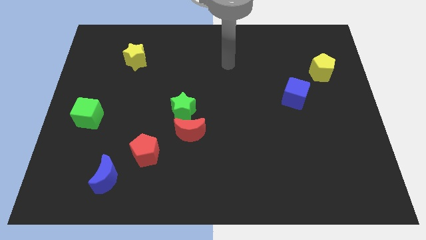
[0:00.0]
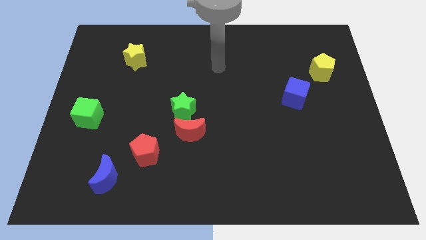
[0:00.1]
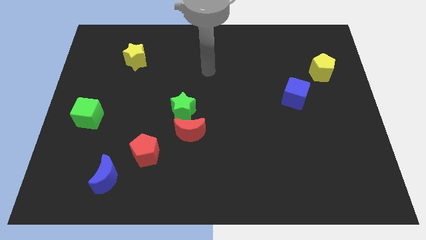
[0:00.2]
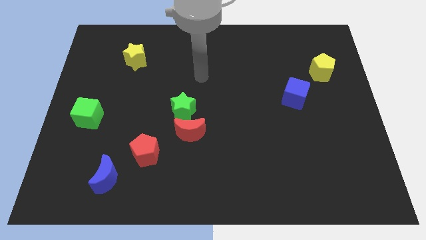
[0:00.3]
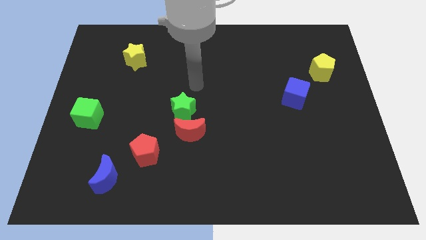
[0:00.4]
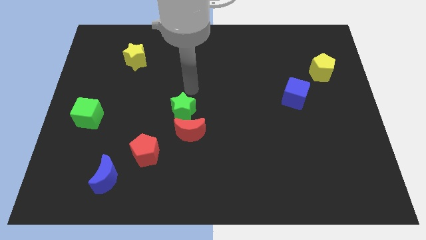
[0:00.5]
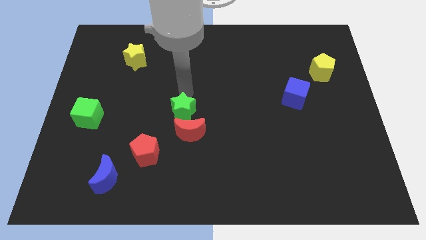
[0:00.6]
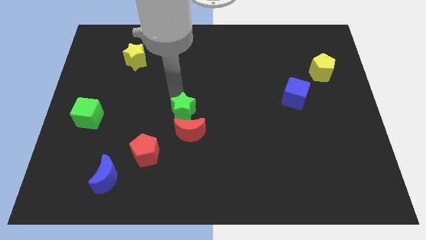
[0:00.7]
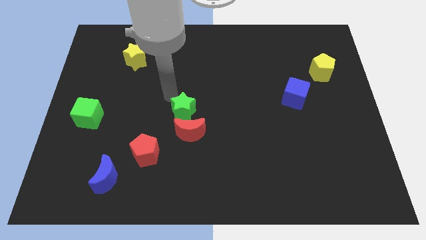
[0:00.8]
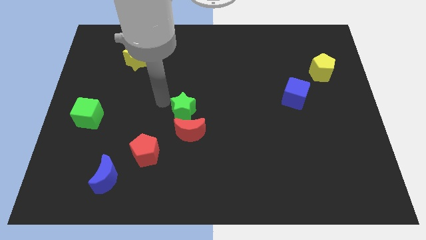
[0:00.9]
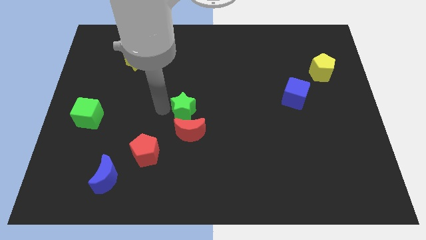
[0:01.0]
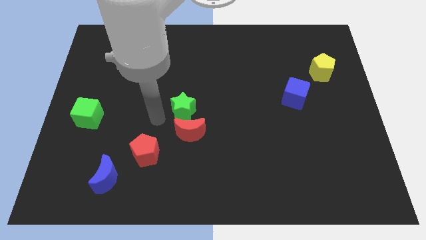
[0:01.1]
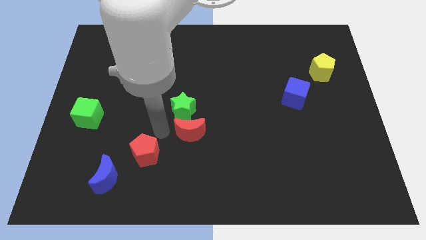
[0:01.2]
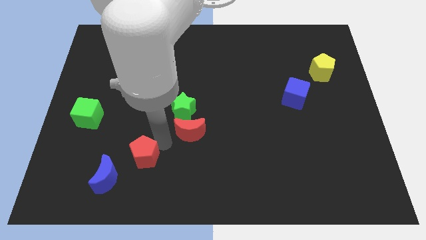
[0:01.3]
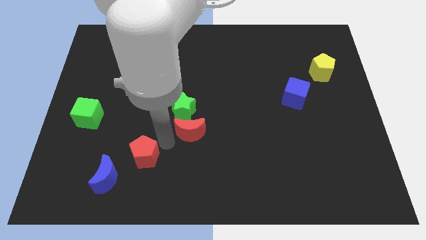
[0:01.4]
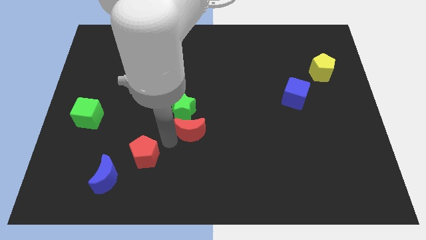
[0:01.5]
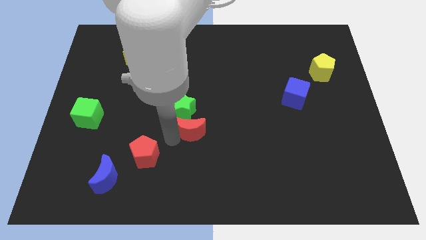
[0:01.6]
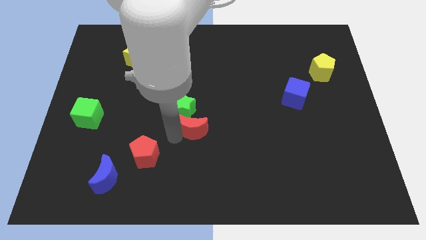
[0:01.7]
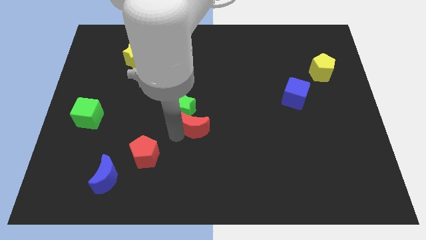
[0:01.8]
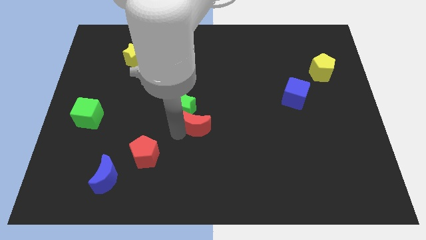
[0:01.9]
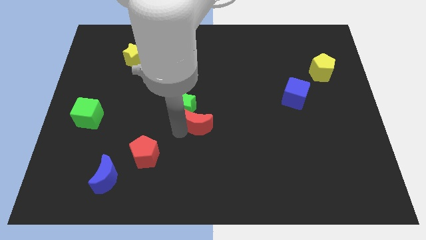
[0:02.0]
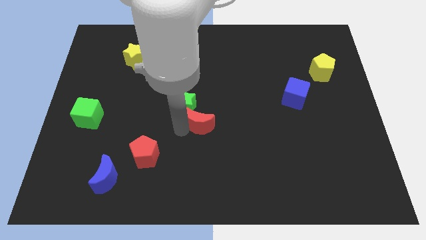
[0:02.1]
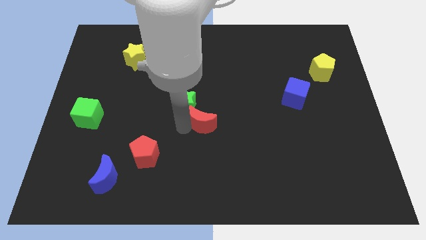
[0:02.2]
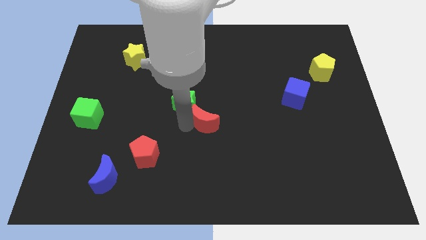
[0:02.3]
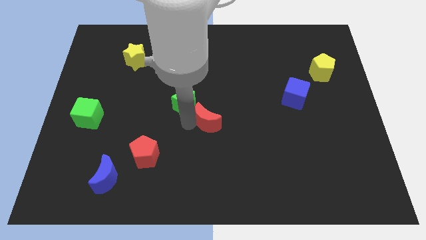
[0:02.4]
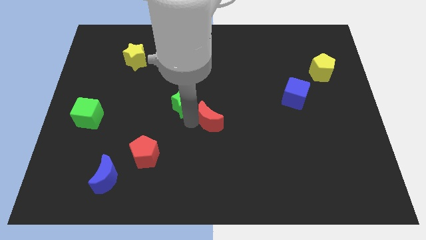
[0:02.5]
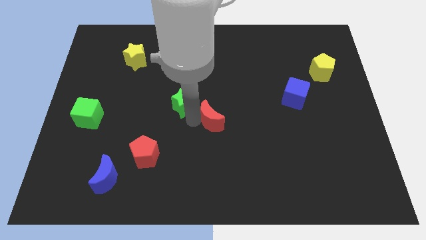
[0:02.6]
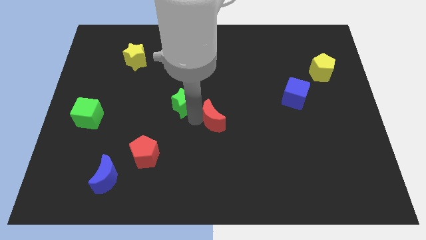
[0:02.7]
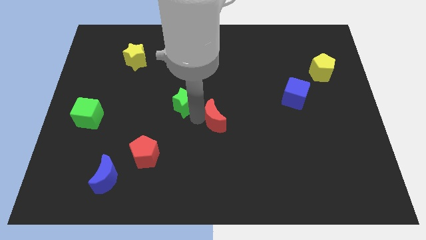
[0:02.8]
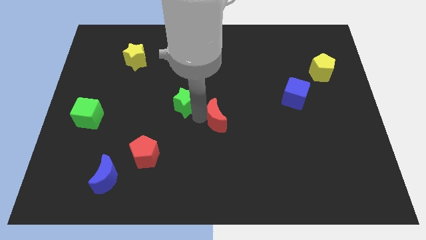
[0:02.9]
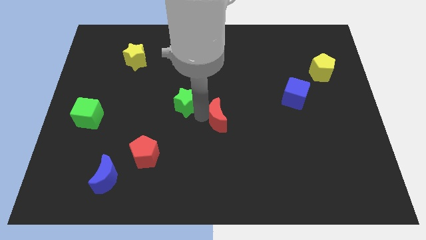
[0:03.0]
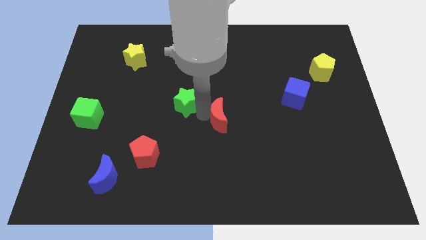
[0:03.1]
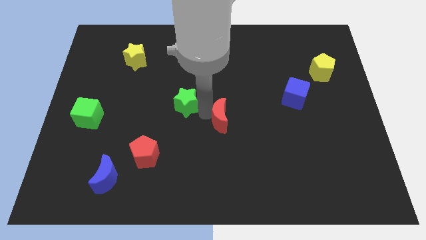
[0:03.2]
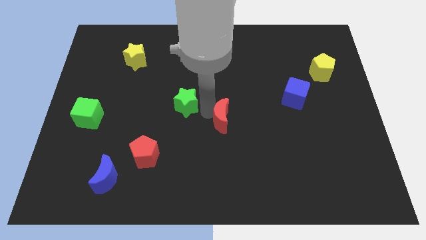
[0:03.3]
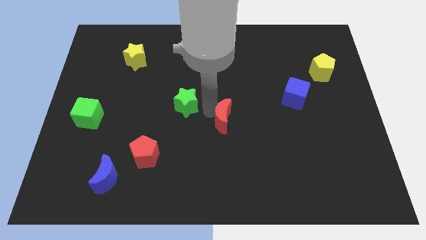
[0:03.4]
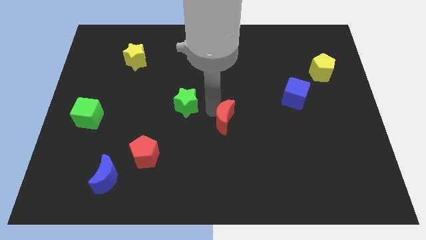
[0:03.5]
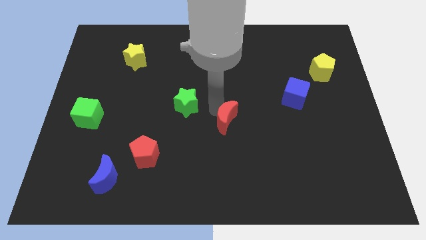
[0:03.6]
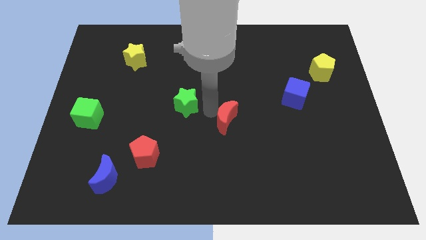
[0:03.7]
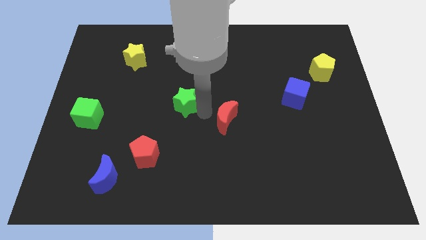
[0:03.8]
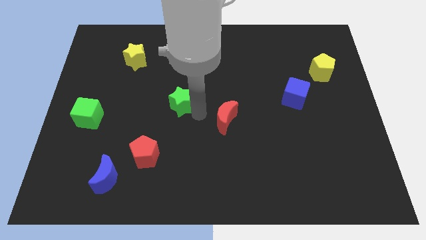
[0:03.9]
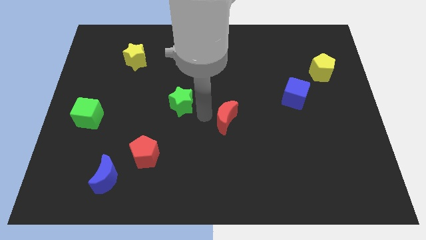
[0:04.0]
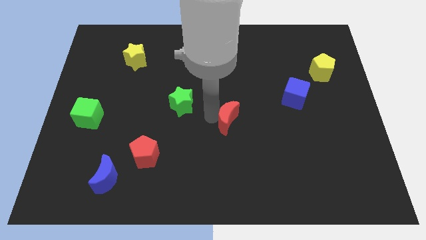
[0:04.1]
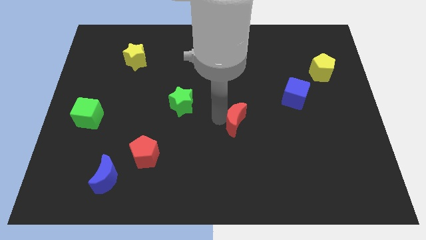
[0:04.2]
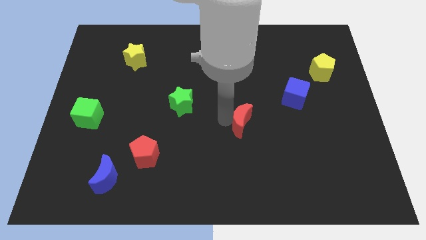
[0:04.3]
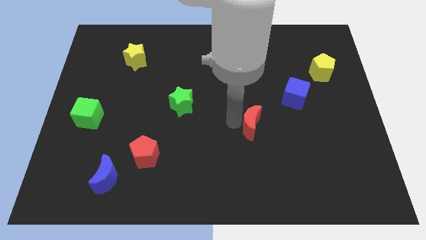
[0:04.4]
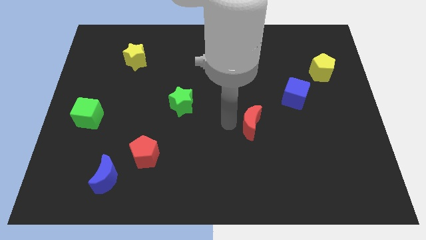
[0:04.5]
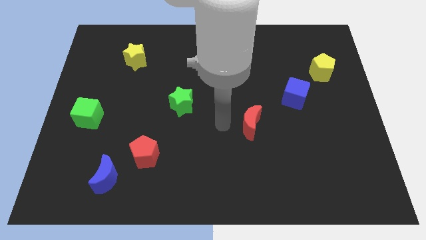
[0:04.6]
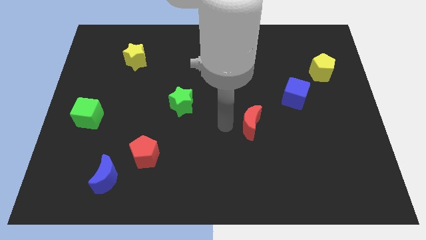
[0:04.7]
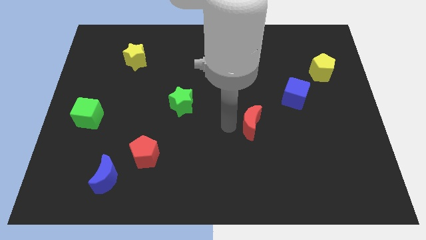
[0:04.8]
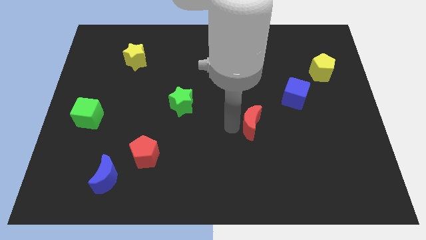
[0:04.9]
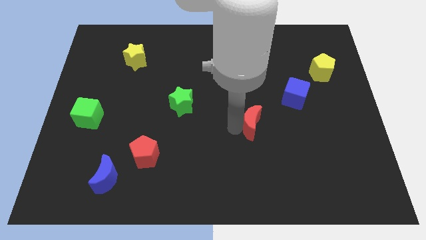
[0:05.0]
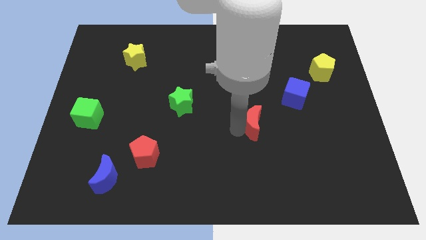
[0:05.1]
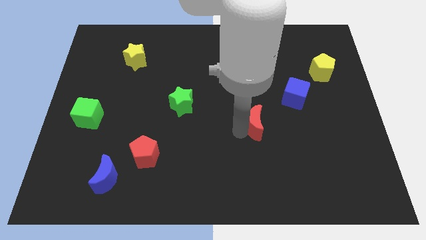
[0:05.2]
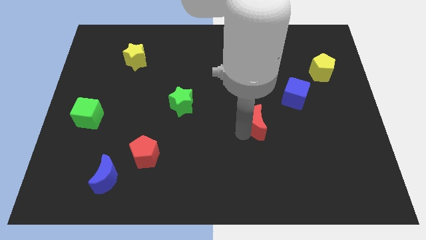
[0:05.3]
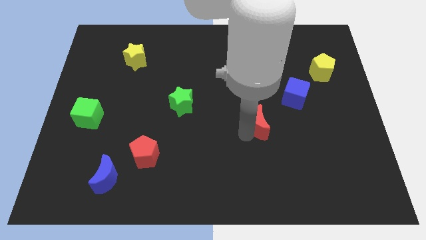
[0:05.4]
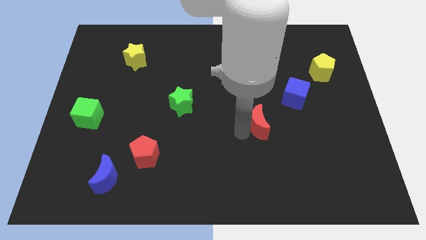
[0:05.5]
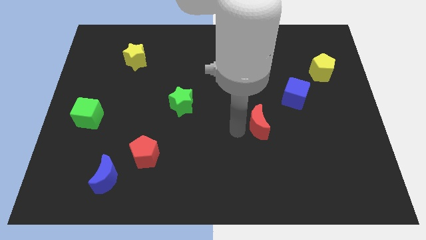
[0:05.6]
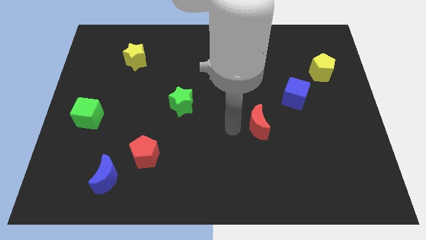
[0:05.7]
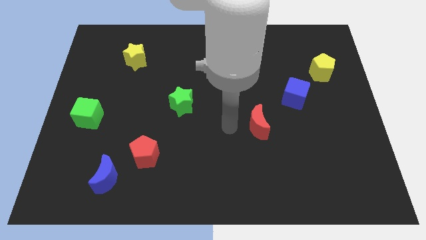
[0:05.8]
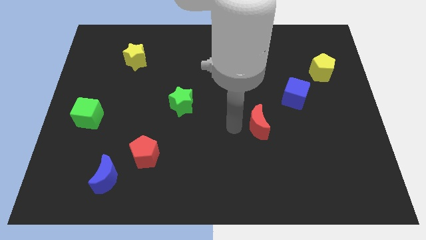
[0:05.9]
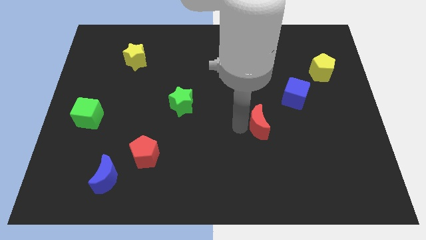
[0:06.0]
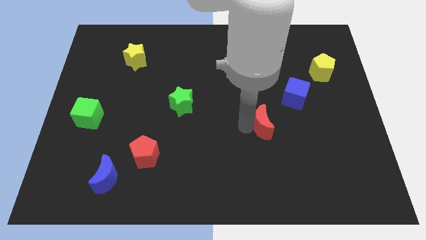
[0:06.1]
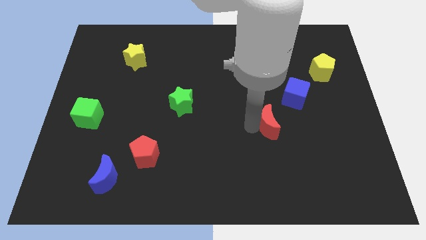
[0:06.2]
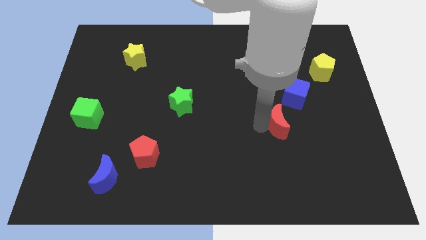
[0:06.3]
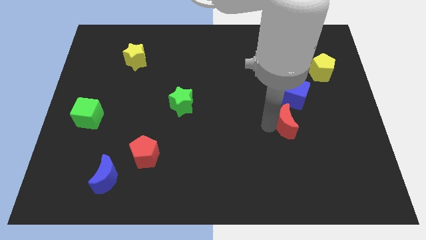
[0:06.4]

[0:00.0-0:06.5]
move the red moon right

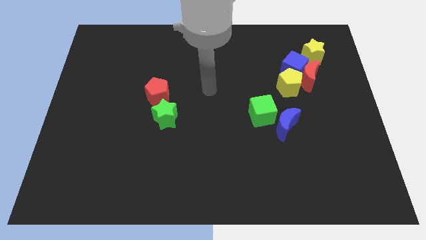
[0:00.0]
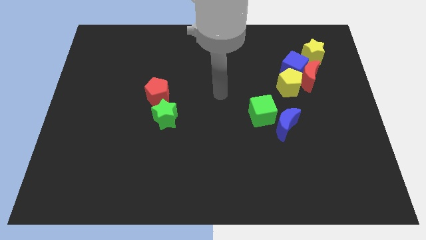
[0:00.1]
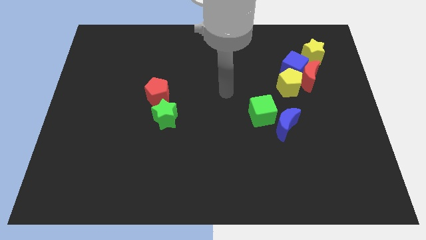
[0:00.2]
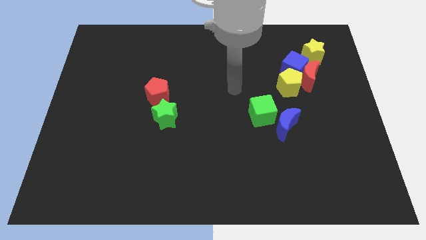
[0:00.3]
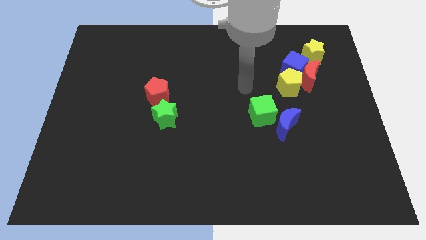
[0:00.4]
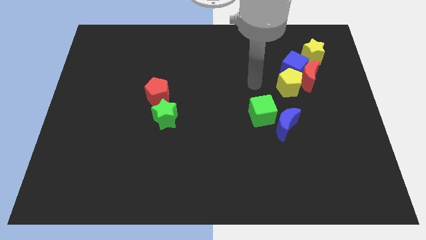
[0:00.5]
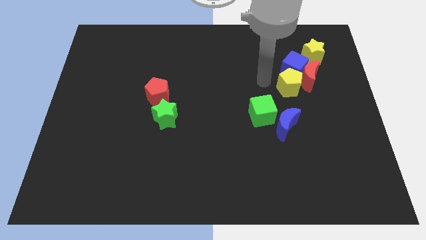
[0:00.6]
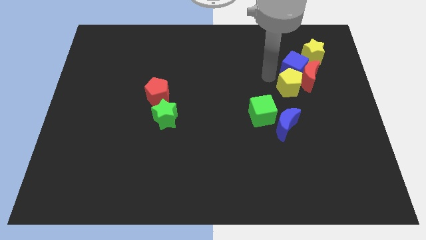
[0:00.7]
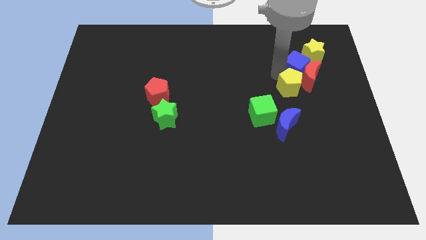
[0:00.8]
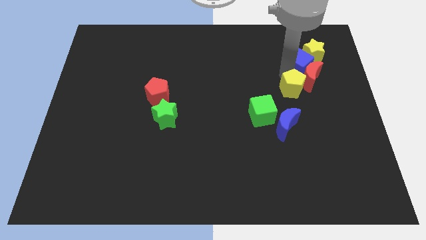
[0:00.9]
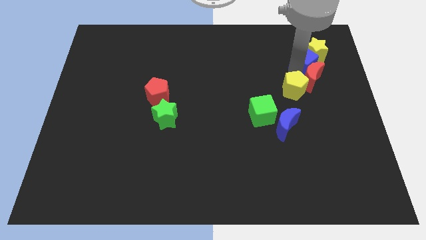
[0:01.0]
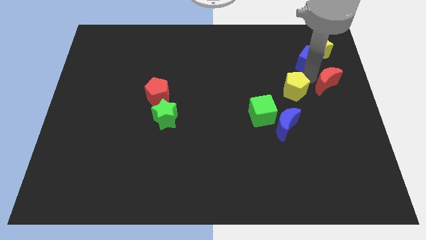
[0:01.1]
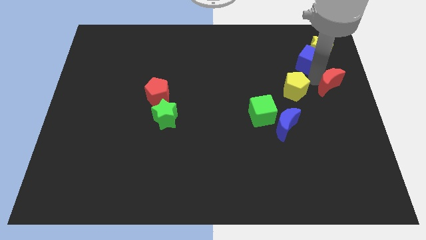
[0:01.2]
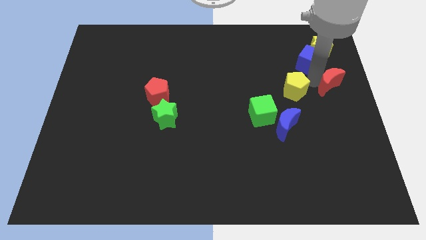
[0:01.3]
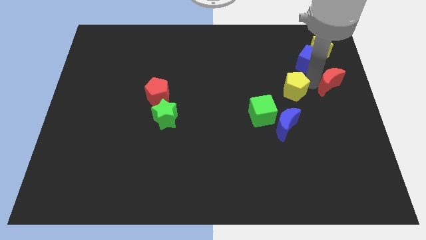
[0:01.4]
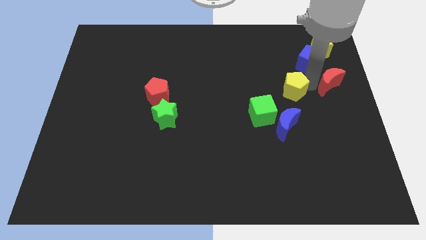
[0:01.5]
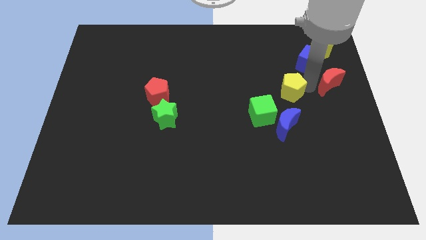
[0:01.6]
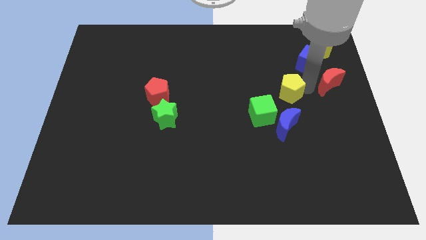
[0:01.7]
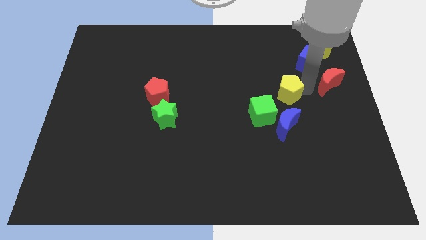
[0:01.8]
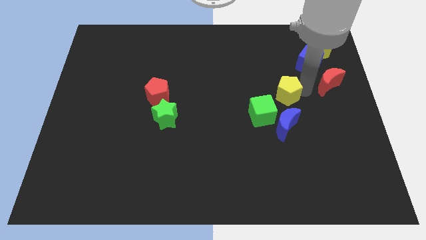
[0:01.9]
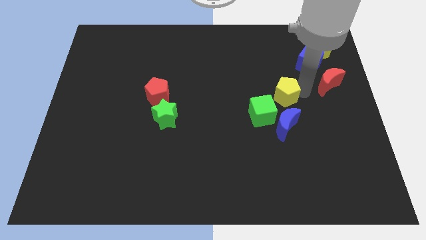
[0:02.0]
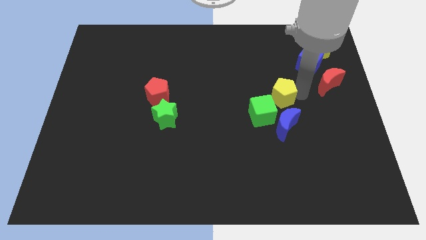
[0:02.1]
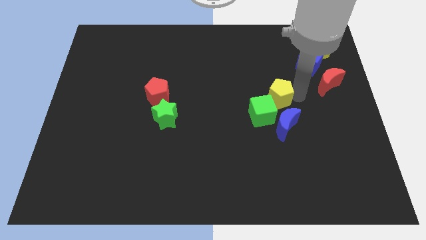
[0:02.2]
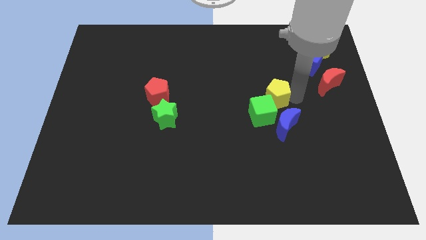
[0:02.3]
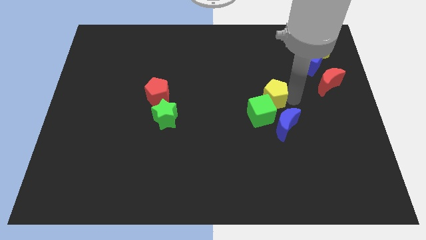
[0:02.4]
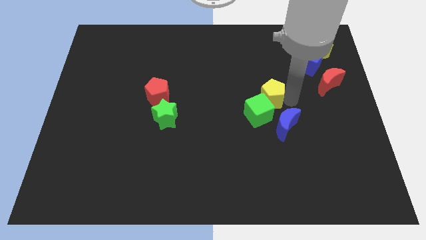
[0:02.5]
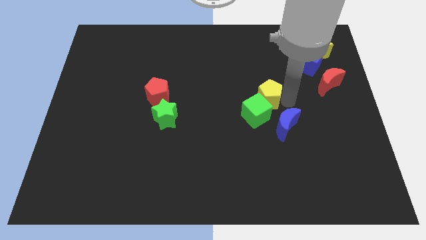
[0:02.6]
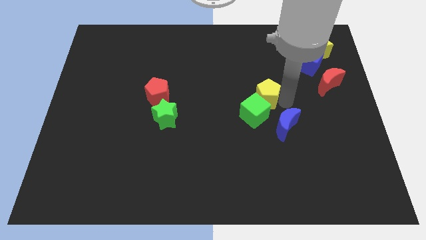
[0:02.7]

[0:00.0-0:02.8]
slightly push the yellow pentagon down and to the left diagonally
